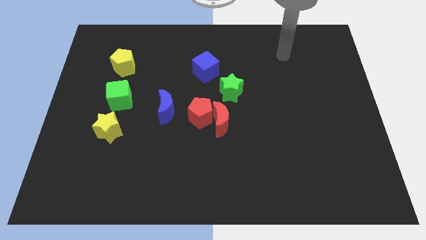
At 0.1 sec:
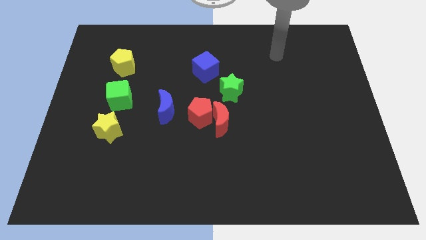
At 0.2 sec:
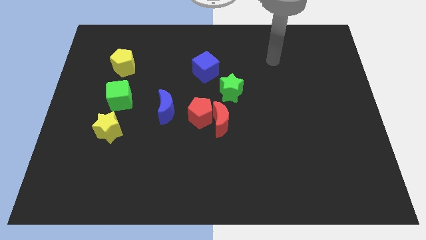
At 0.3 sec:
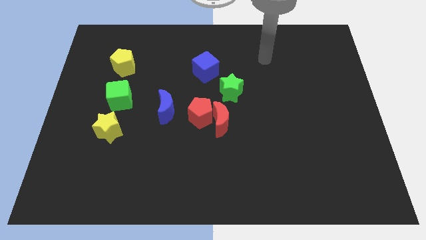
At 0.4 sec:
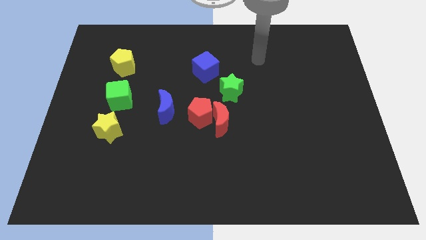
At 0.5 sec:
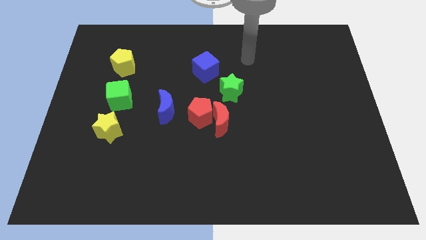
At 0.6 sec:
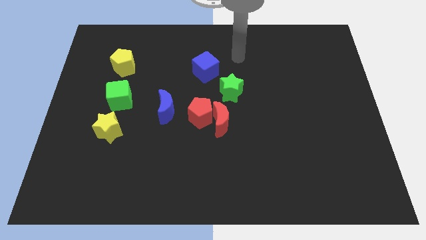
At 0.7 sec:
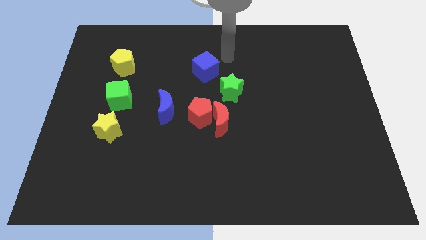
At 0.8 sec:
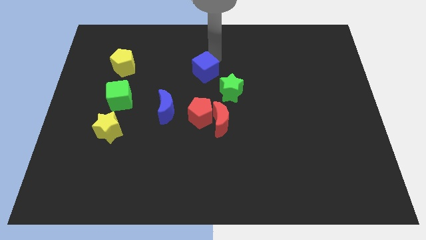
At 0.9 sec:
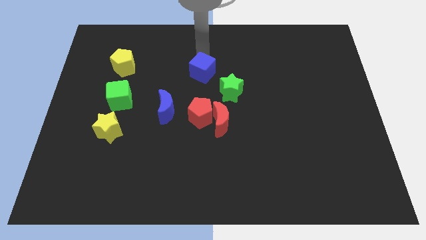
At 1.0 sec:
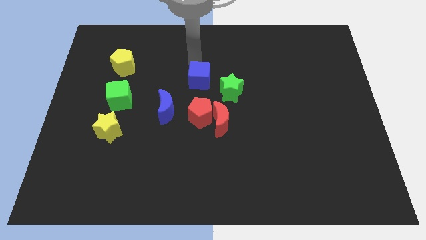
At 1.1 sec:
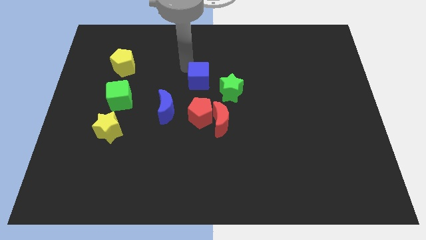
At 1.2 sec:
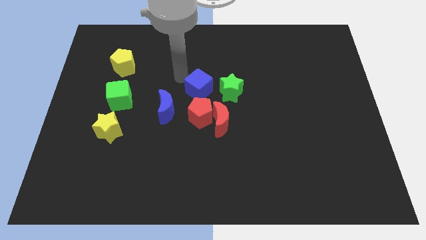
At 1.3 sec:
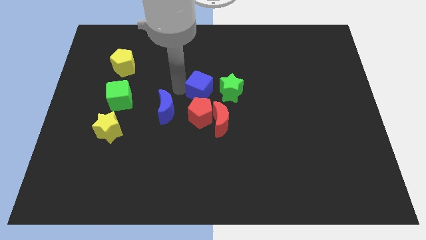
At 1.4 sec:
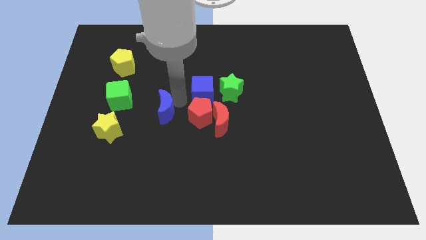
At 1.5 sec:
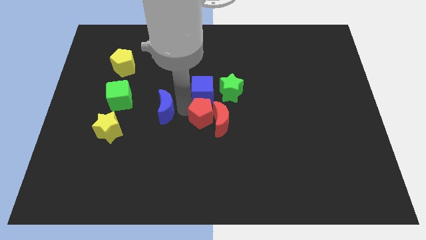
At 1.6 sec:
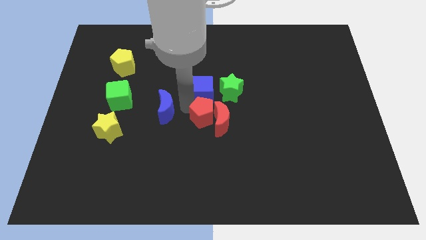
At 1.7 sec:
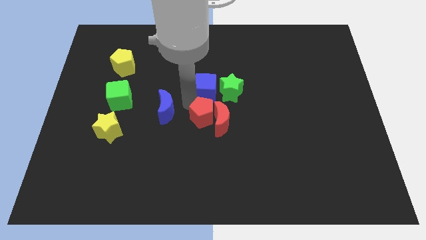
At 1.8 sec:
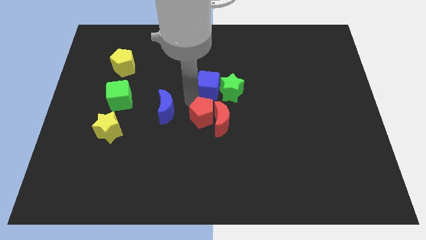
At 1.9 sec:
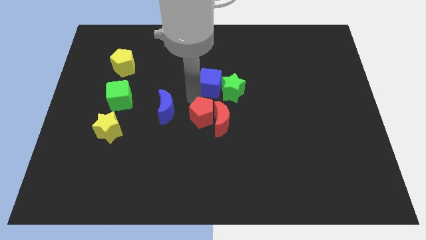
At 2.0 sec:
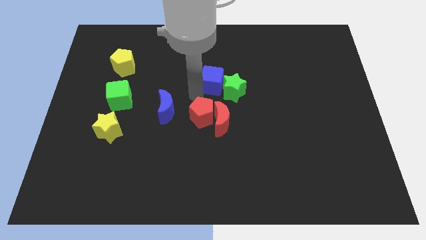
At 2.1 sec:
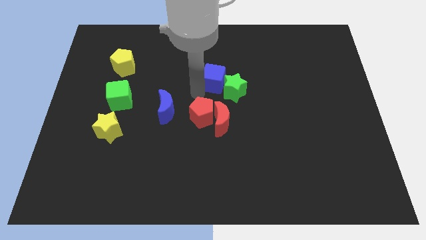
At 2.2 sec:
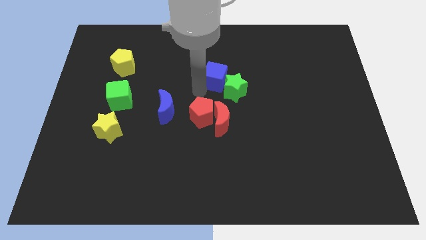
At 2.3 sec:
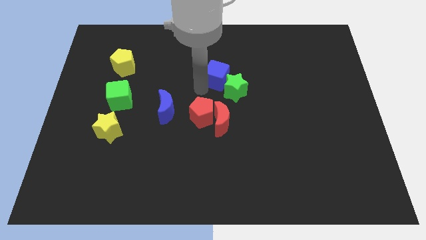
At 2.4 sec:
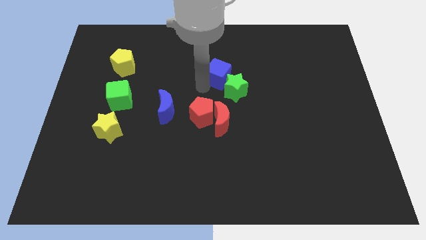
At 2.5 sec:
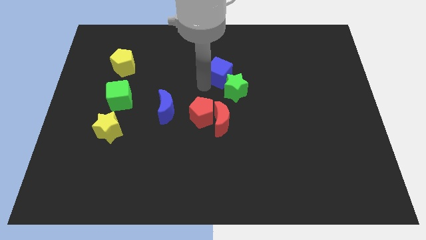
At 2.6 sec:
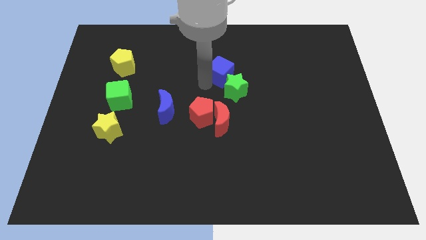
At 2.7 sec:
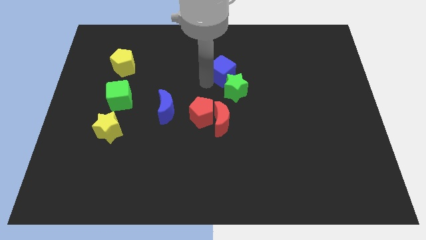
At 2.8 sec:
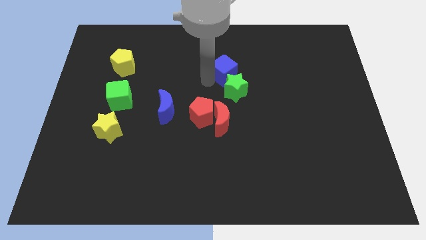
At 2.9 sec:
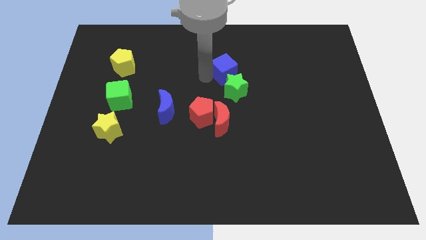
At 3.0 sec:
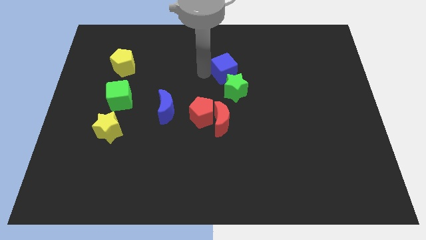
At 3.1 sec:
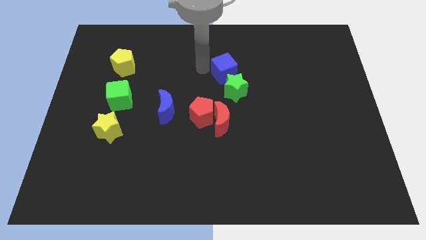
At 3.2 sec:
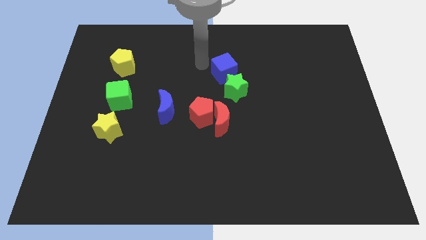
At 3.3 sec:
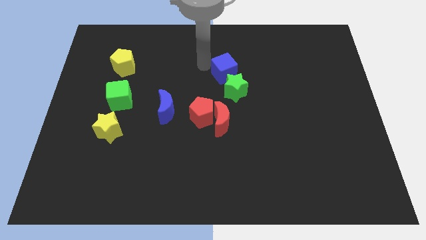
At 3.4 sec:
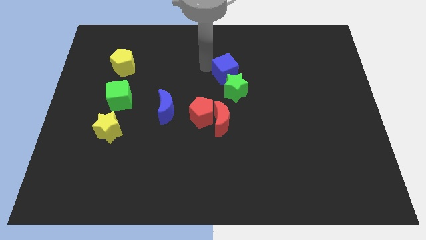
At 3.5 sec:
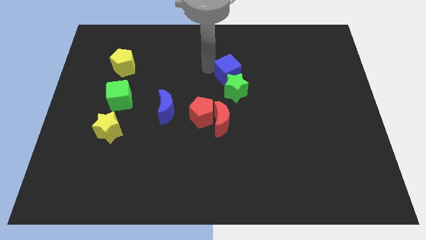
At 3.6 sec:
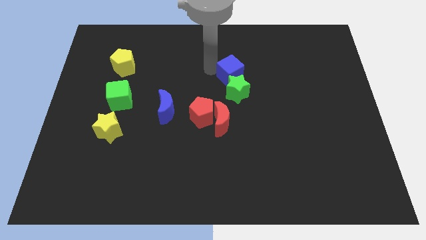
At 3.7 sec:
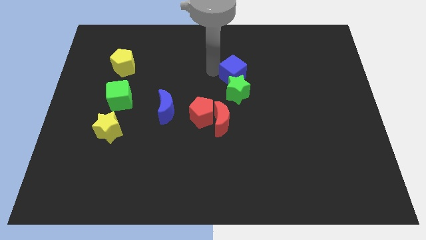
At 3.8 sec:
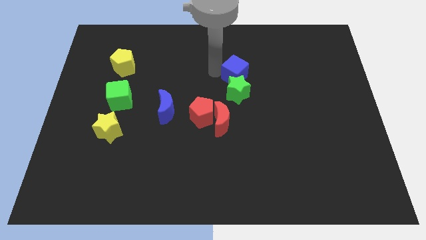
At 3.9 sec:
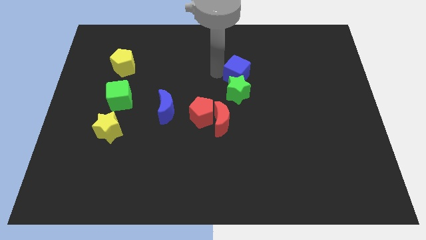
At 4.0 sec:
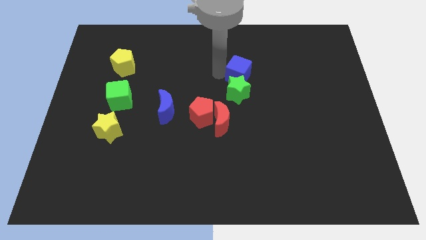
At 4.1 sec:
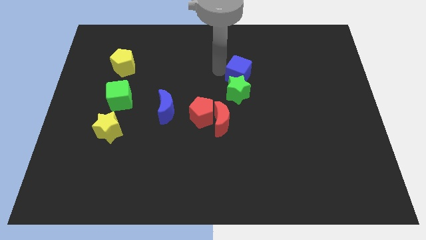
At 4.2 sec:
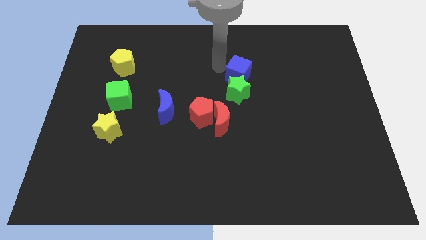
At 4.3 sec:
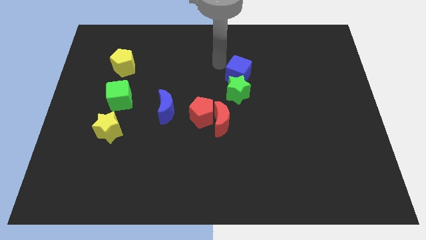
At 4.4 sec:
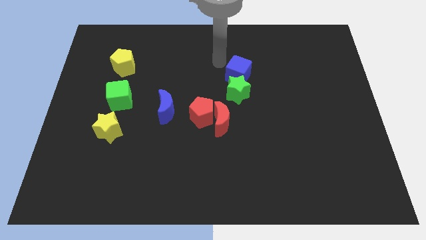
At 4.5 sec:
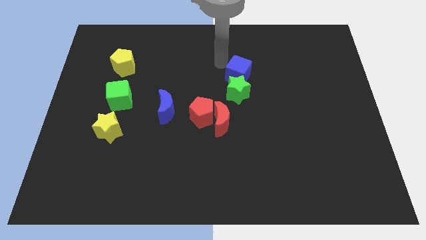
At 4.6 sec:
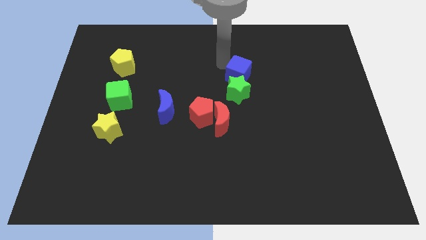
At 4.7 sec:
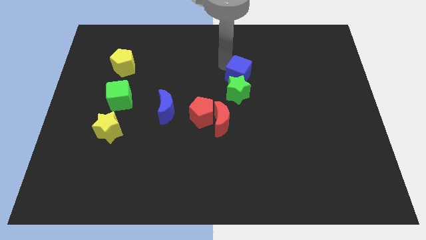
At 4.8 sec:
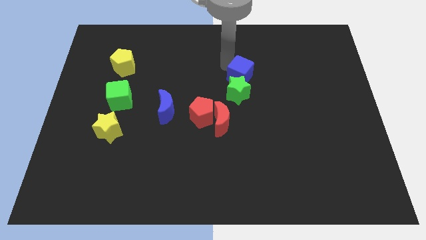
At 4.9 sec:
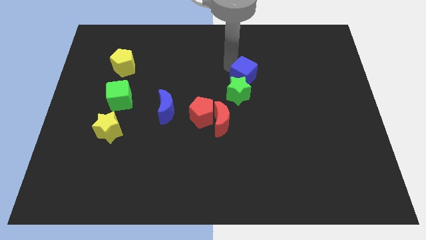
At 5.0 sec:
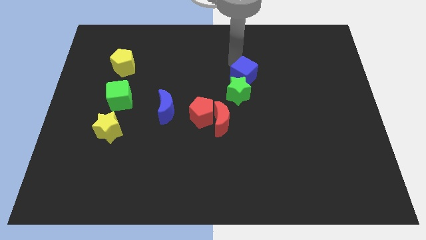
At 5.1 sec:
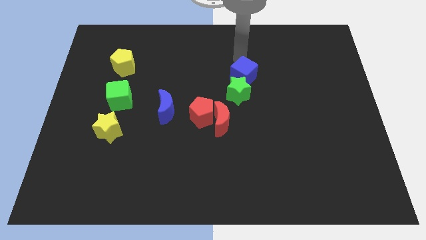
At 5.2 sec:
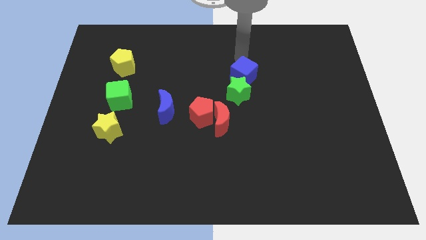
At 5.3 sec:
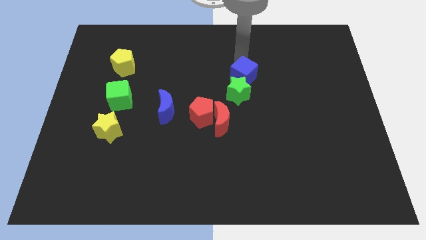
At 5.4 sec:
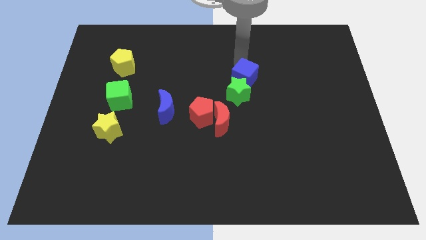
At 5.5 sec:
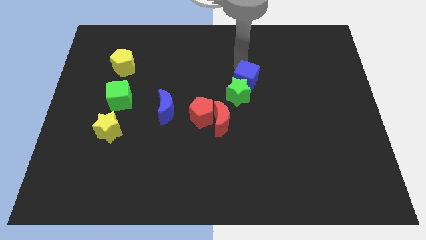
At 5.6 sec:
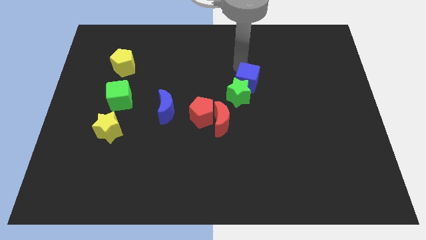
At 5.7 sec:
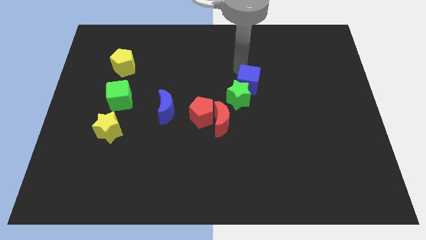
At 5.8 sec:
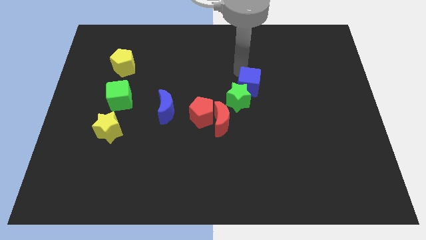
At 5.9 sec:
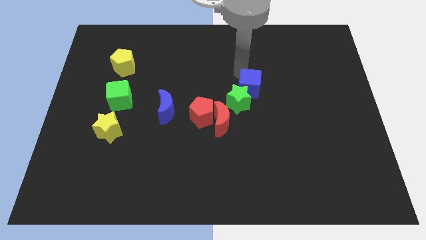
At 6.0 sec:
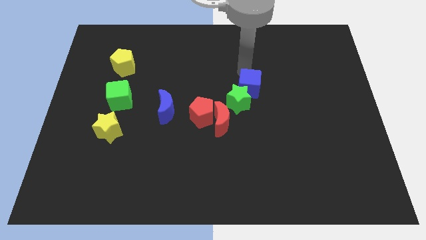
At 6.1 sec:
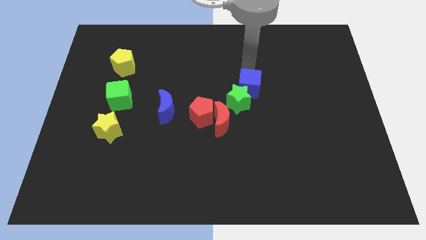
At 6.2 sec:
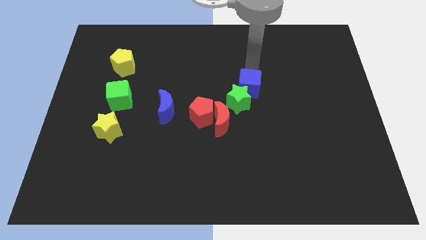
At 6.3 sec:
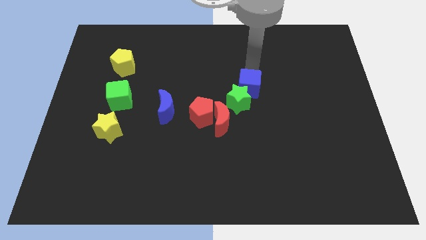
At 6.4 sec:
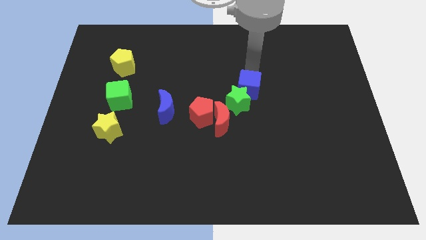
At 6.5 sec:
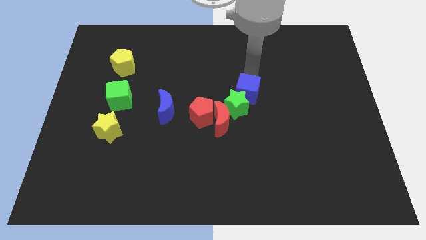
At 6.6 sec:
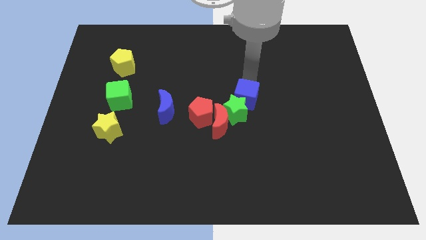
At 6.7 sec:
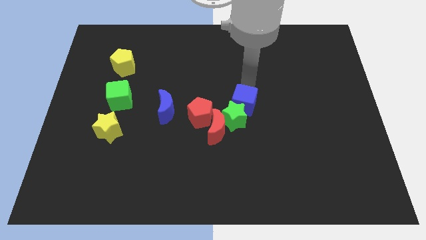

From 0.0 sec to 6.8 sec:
push the blue cube to the right of the red pentagon
